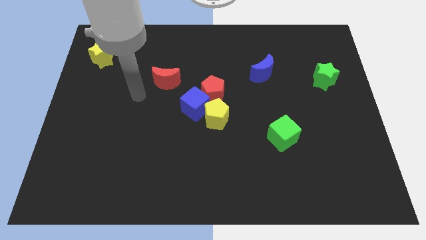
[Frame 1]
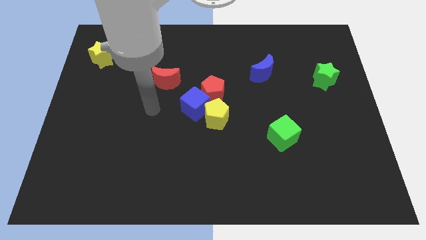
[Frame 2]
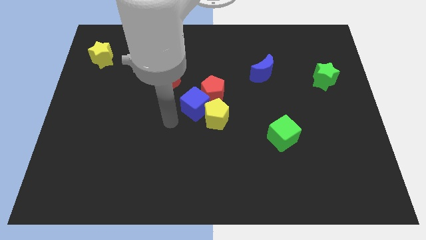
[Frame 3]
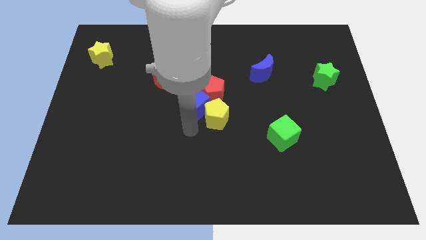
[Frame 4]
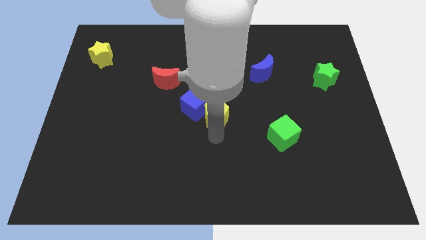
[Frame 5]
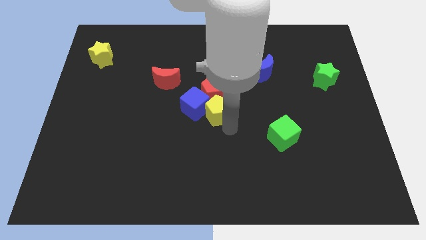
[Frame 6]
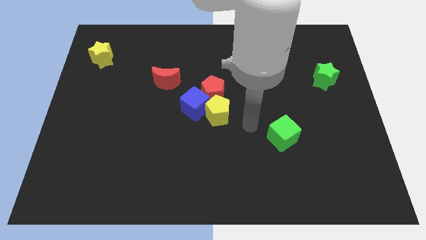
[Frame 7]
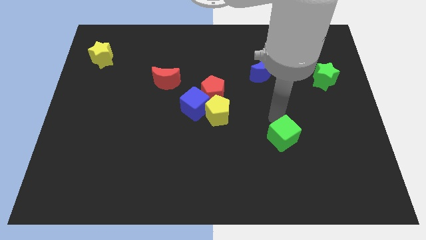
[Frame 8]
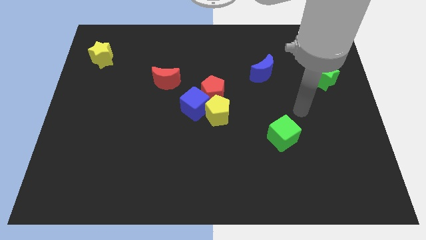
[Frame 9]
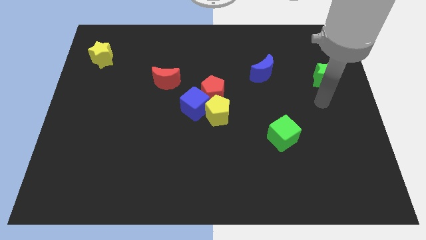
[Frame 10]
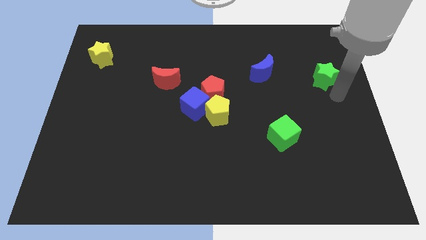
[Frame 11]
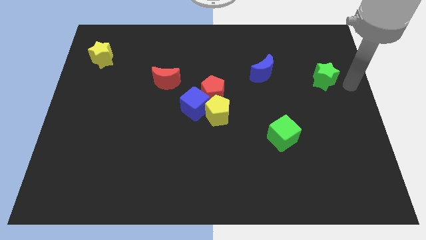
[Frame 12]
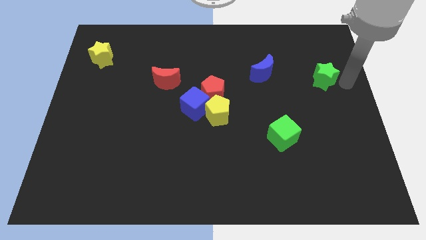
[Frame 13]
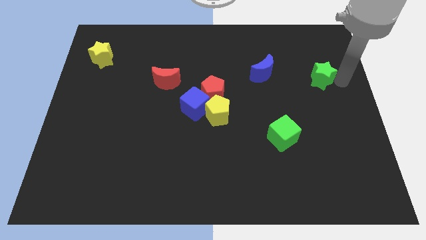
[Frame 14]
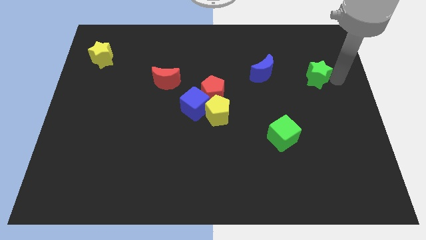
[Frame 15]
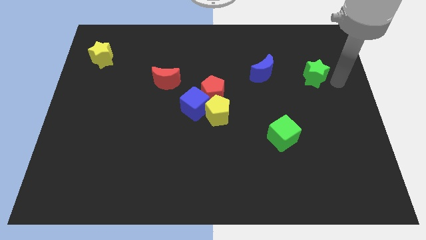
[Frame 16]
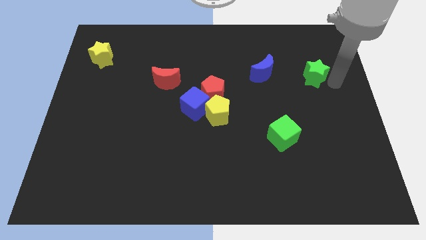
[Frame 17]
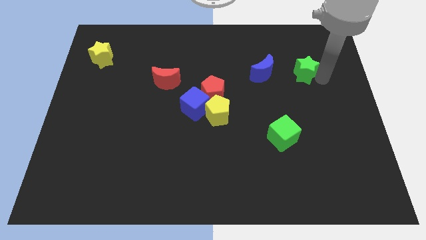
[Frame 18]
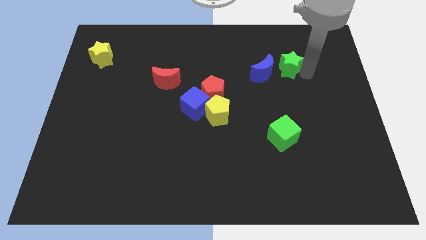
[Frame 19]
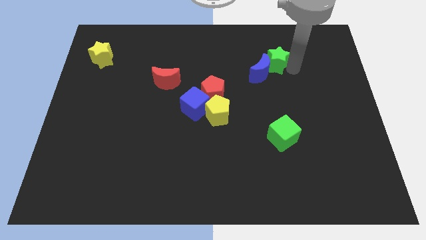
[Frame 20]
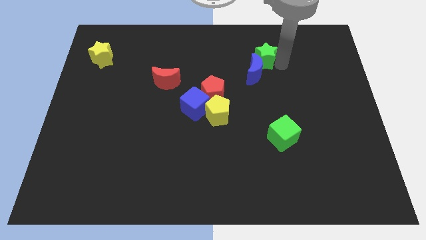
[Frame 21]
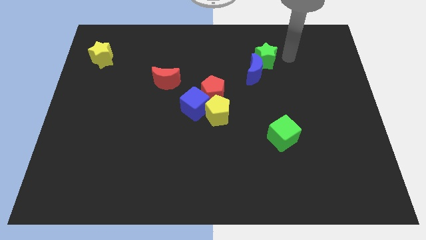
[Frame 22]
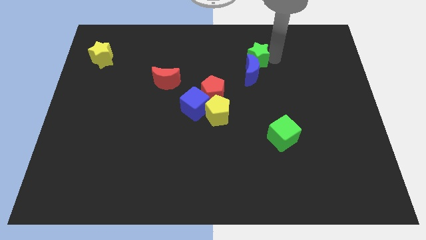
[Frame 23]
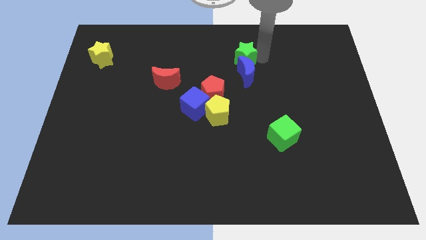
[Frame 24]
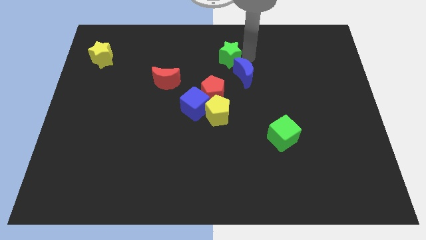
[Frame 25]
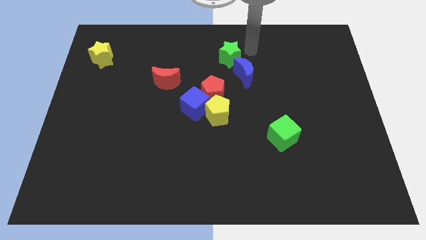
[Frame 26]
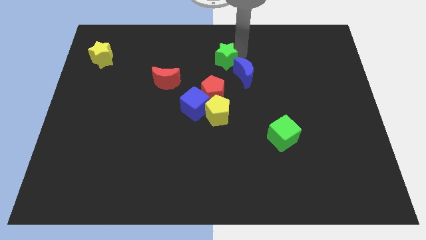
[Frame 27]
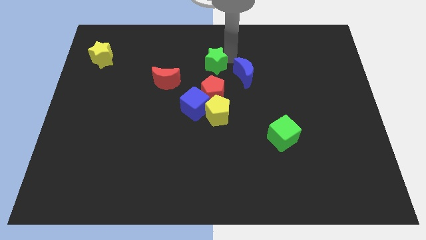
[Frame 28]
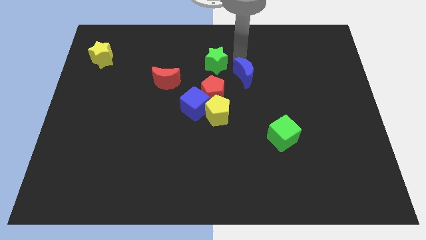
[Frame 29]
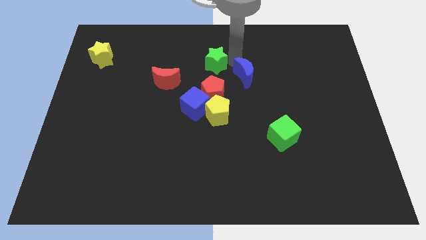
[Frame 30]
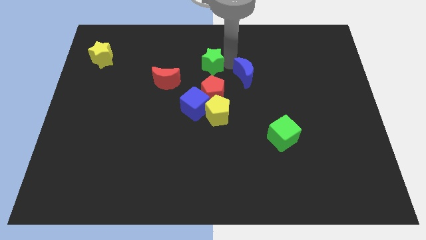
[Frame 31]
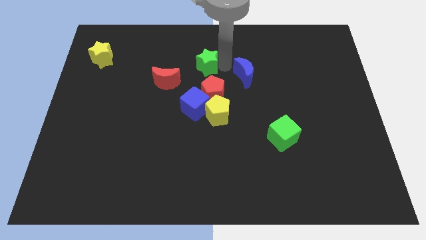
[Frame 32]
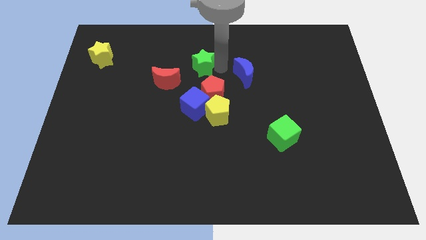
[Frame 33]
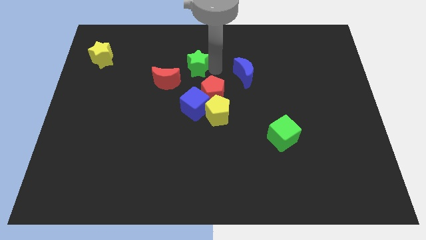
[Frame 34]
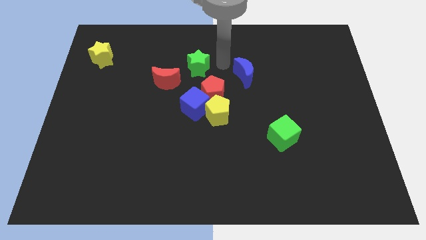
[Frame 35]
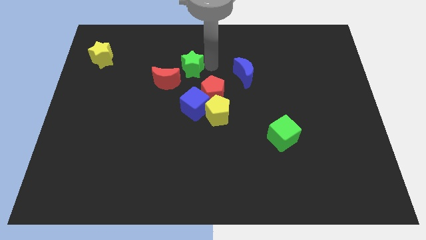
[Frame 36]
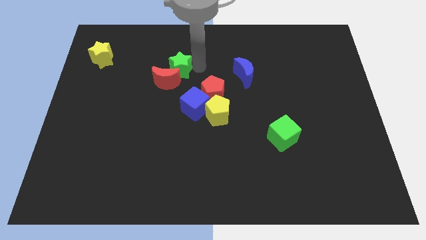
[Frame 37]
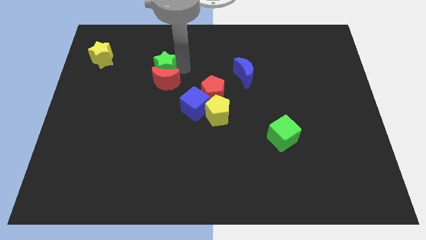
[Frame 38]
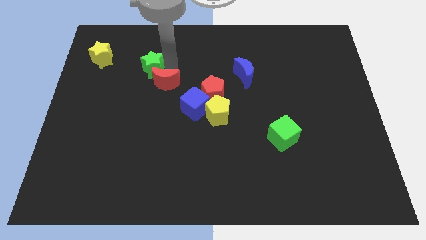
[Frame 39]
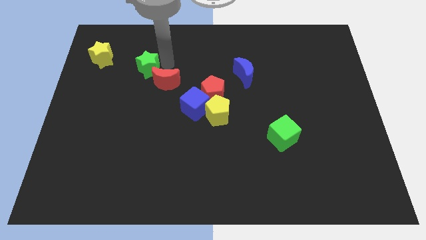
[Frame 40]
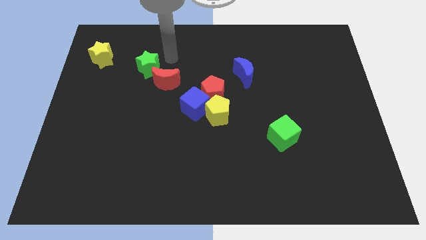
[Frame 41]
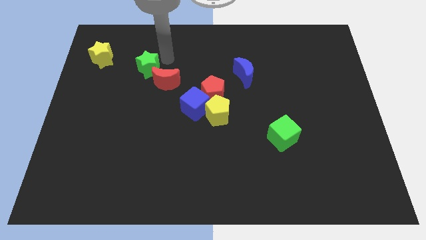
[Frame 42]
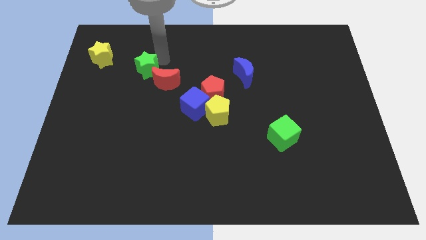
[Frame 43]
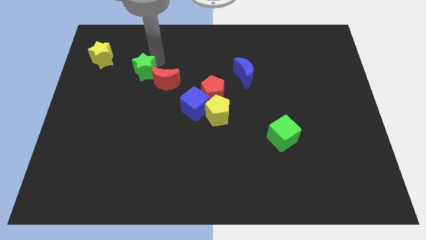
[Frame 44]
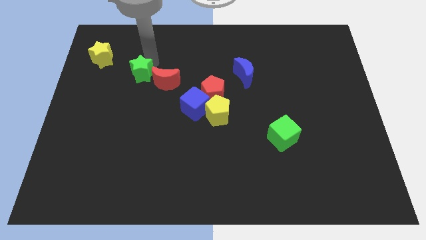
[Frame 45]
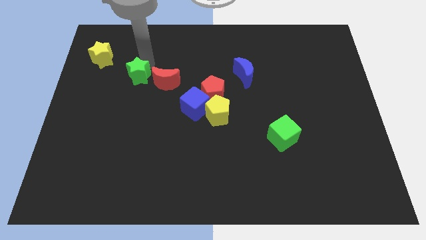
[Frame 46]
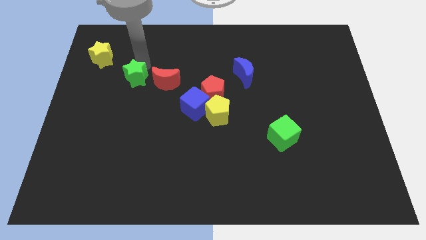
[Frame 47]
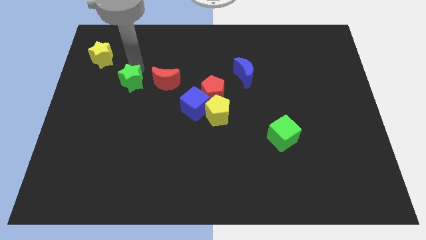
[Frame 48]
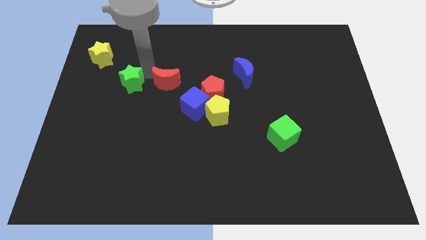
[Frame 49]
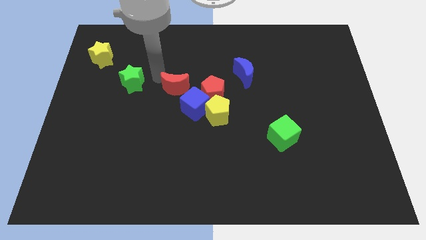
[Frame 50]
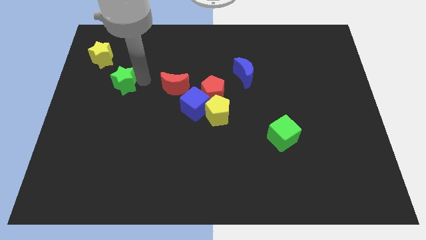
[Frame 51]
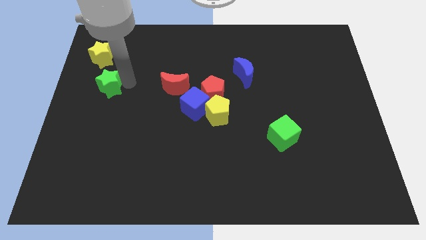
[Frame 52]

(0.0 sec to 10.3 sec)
move the green star to the bottom of the yellow star

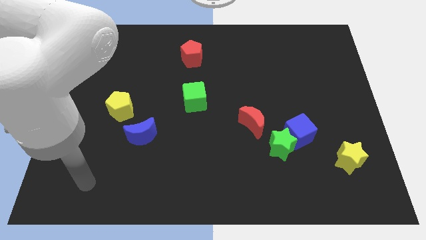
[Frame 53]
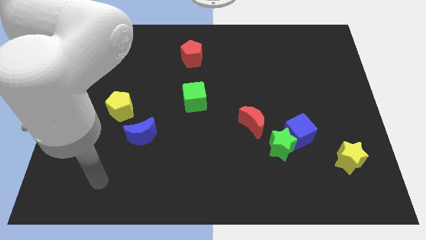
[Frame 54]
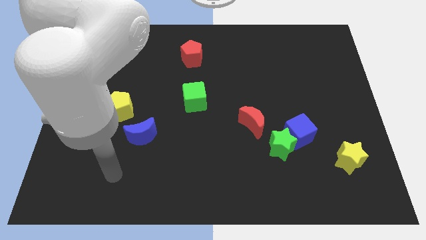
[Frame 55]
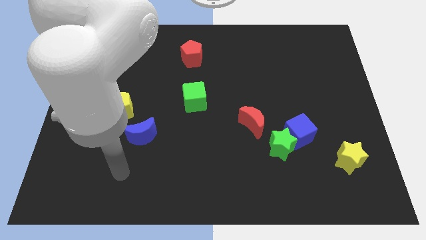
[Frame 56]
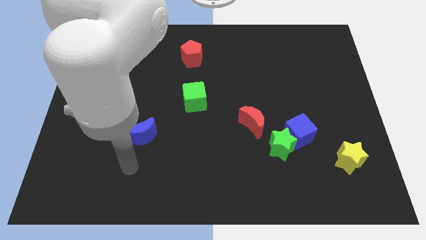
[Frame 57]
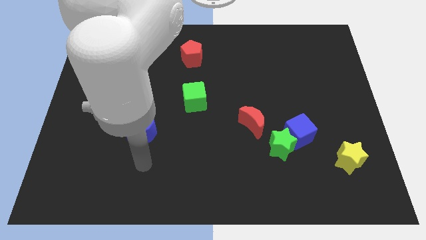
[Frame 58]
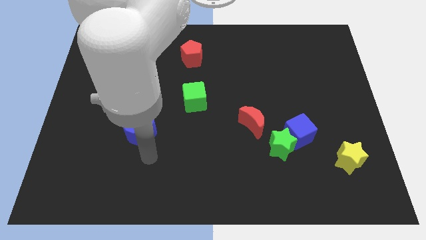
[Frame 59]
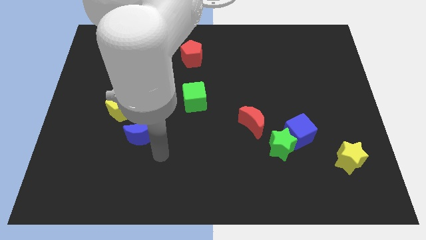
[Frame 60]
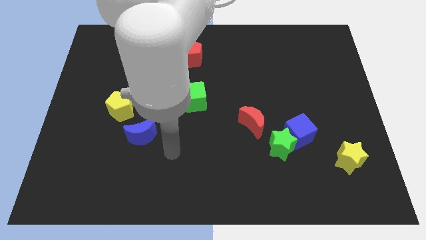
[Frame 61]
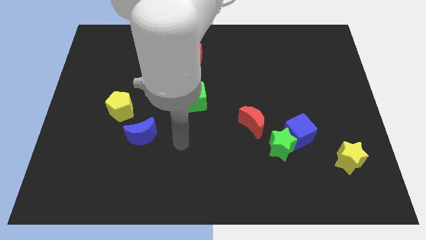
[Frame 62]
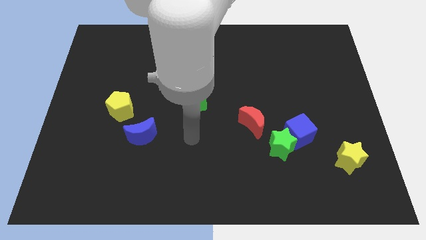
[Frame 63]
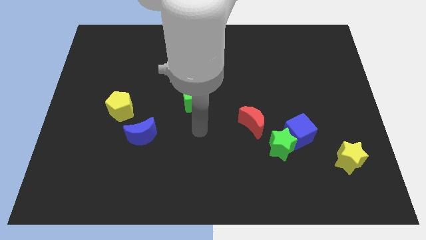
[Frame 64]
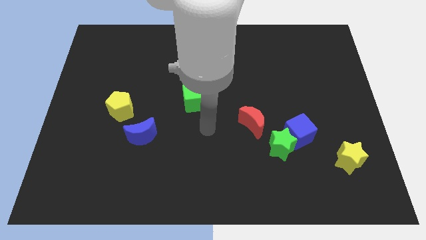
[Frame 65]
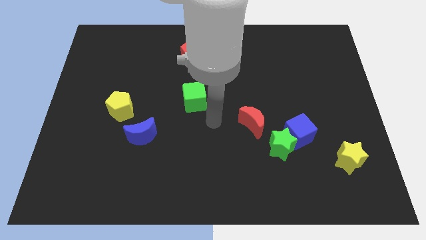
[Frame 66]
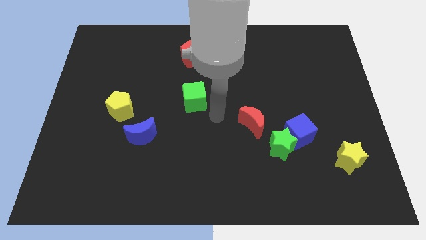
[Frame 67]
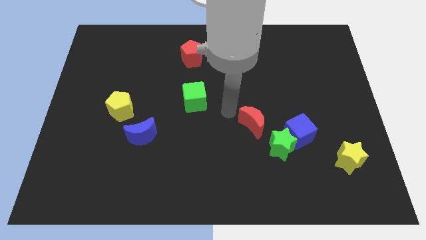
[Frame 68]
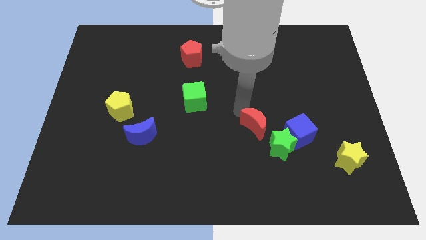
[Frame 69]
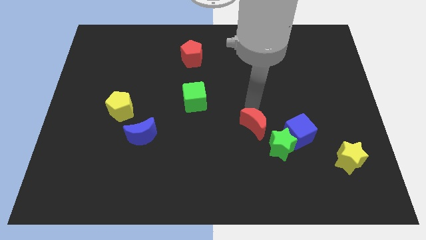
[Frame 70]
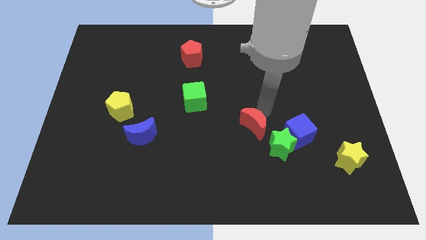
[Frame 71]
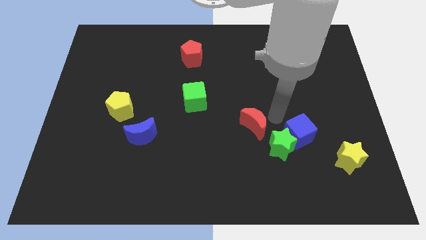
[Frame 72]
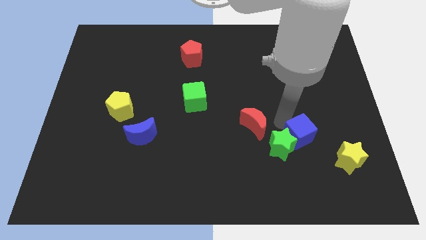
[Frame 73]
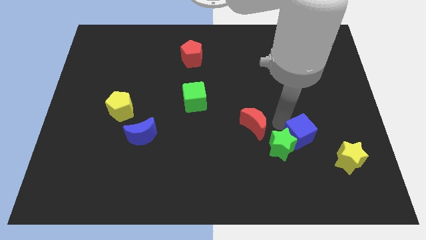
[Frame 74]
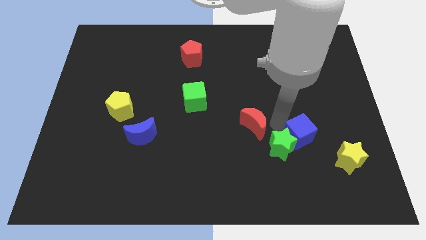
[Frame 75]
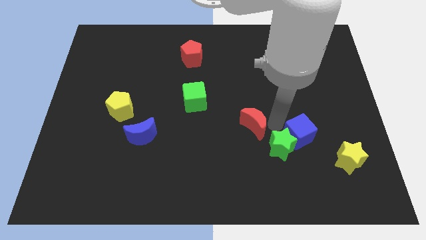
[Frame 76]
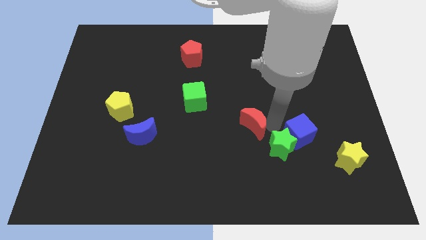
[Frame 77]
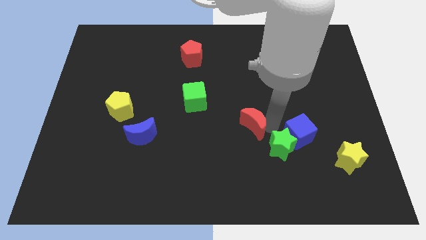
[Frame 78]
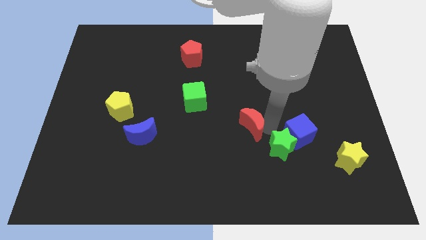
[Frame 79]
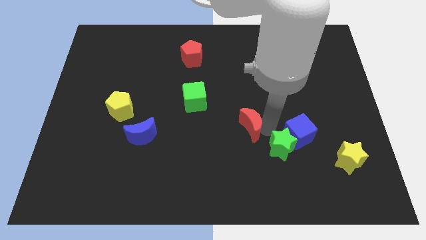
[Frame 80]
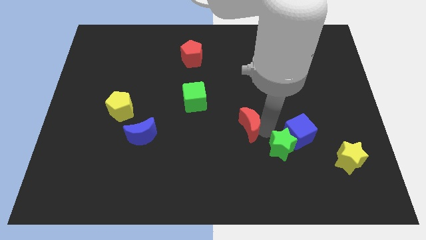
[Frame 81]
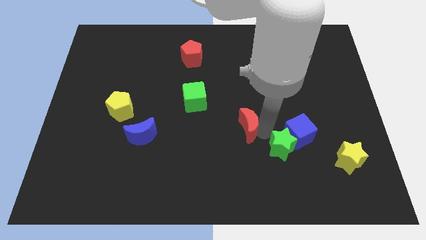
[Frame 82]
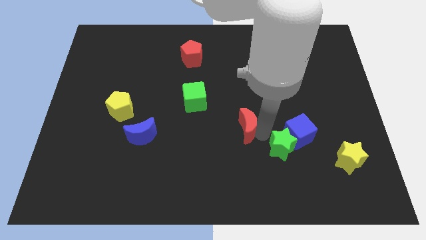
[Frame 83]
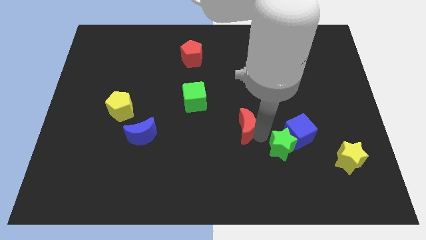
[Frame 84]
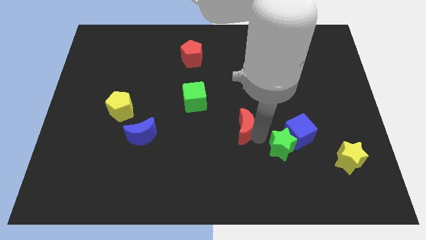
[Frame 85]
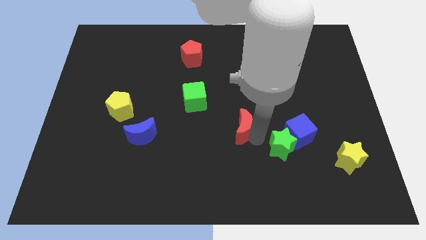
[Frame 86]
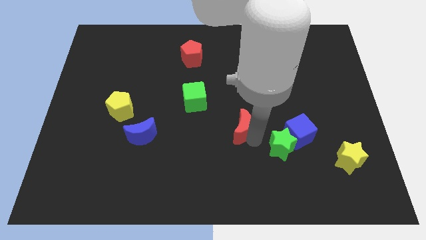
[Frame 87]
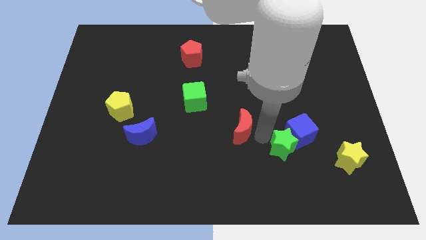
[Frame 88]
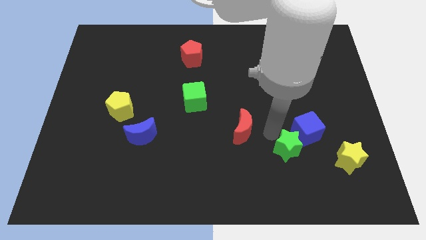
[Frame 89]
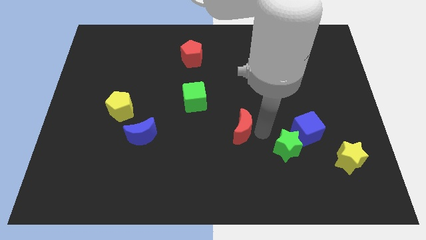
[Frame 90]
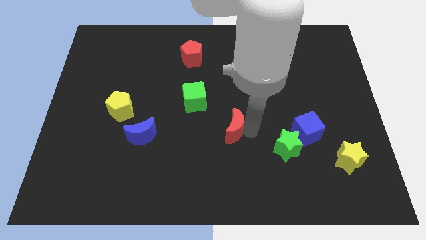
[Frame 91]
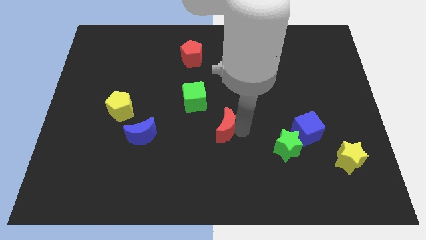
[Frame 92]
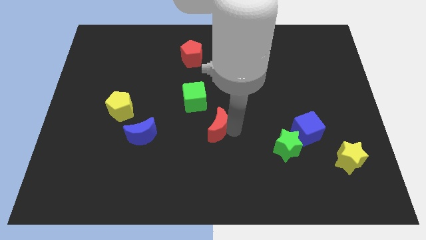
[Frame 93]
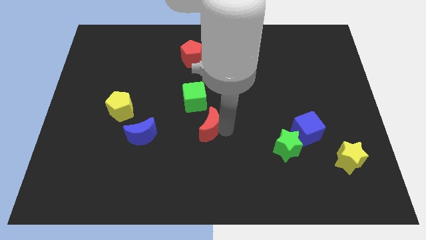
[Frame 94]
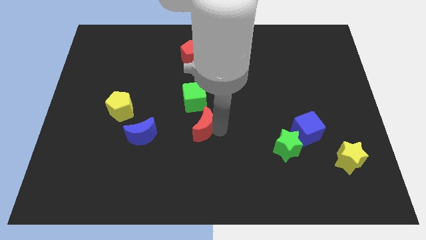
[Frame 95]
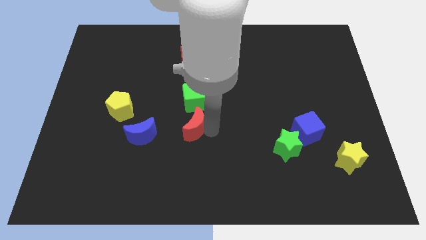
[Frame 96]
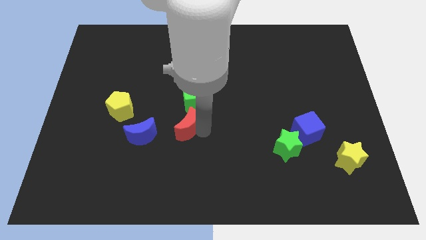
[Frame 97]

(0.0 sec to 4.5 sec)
put the red moon diagonally down and to the left of the green cube
